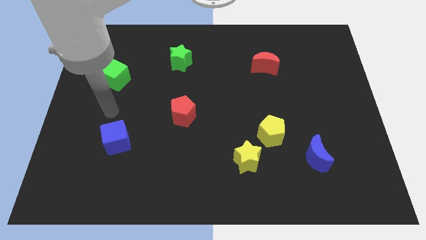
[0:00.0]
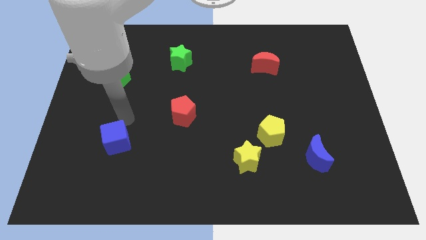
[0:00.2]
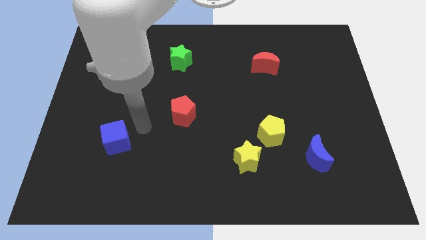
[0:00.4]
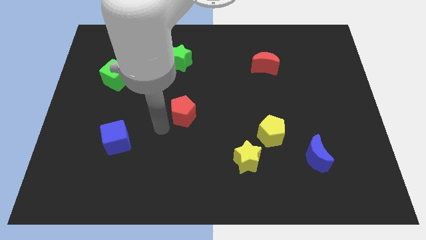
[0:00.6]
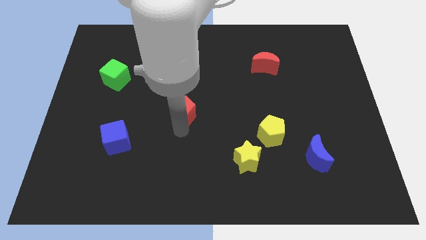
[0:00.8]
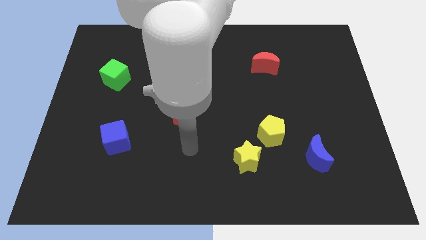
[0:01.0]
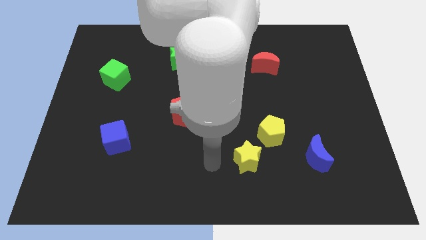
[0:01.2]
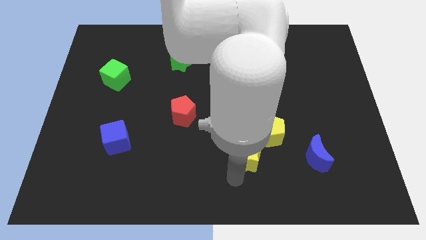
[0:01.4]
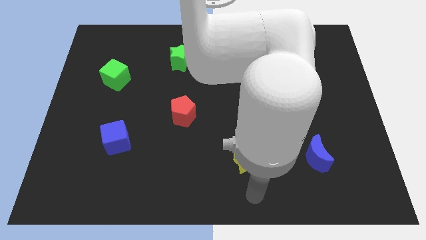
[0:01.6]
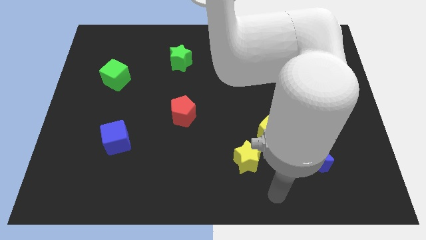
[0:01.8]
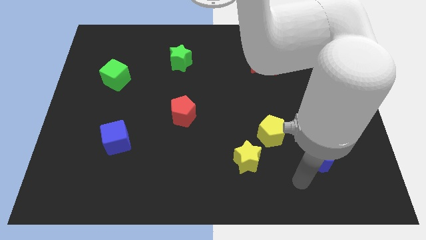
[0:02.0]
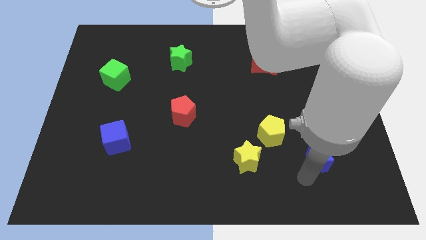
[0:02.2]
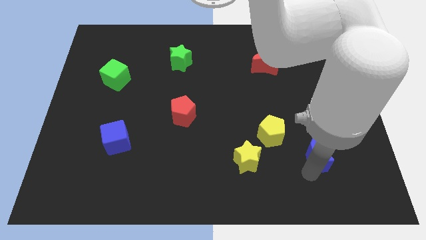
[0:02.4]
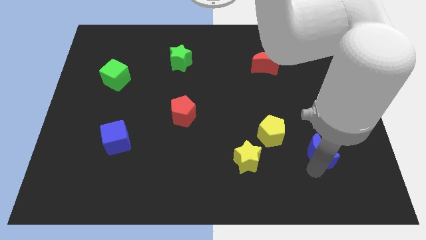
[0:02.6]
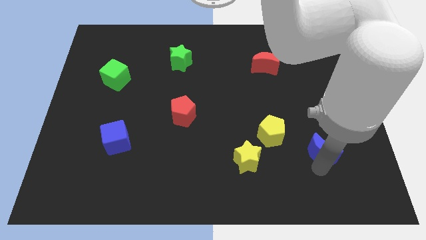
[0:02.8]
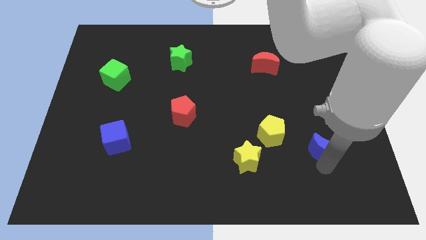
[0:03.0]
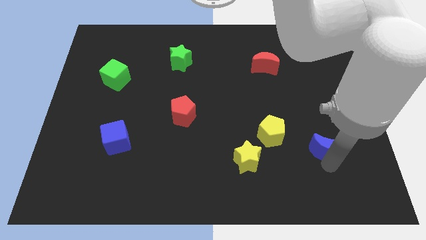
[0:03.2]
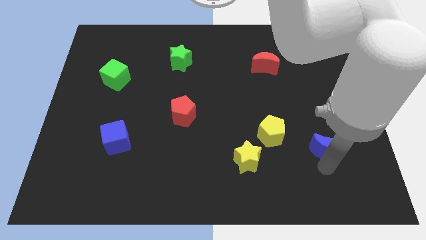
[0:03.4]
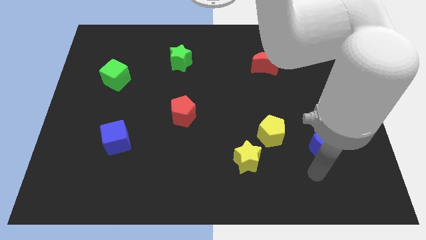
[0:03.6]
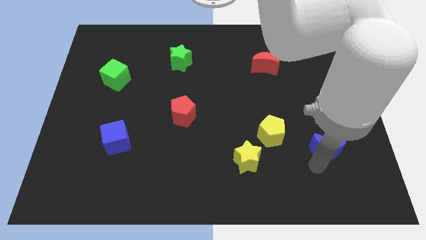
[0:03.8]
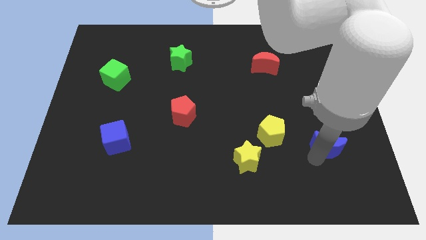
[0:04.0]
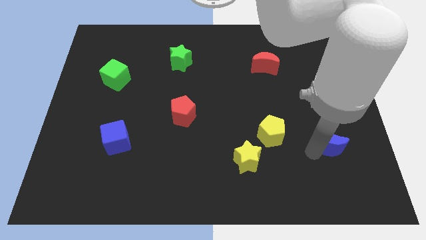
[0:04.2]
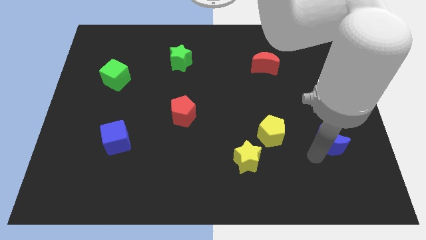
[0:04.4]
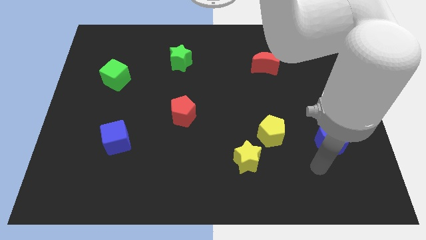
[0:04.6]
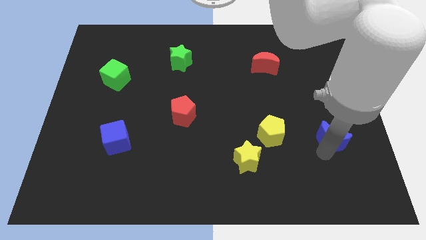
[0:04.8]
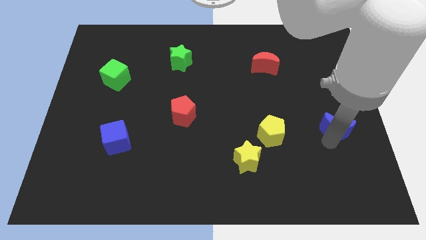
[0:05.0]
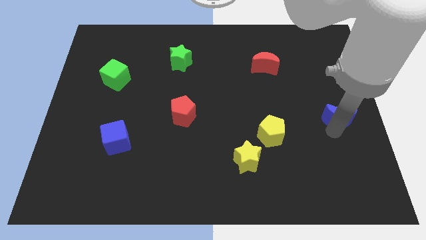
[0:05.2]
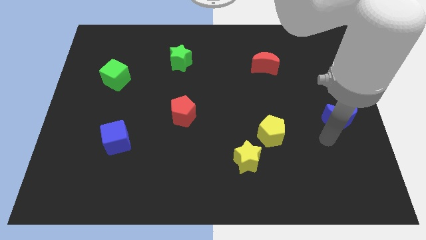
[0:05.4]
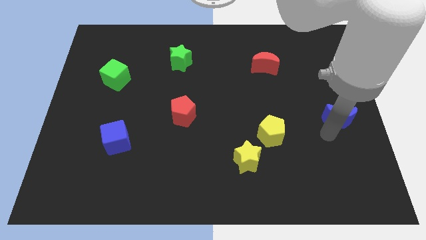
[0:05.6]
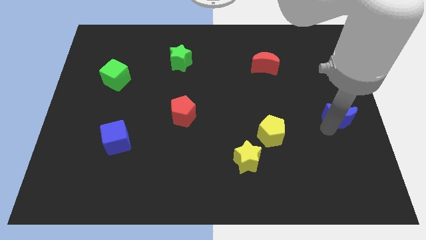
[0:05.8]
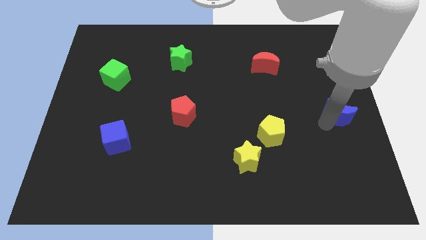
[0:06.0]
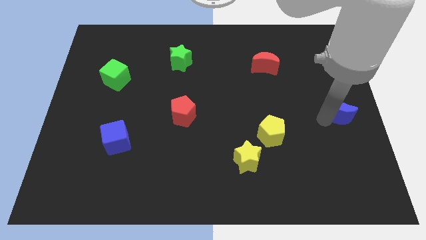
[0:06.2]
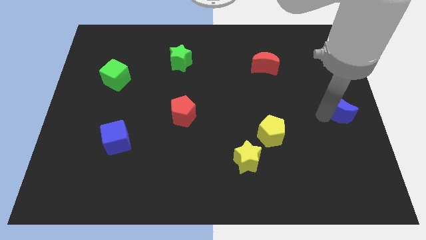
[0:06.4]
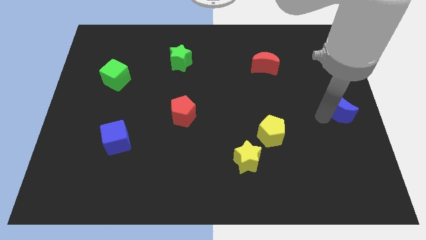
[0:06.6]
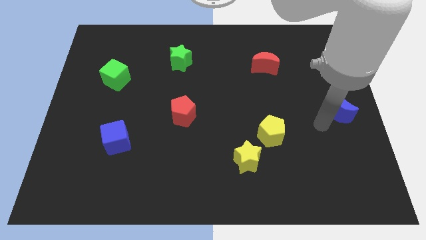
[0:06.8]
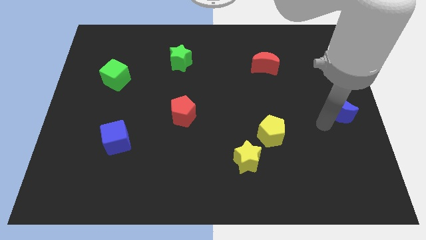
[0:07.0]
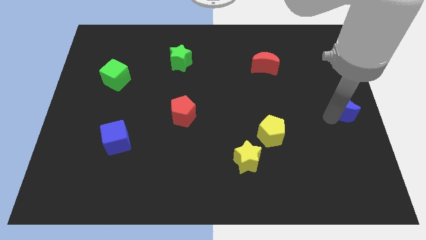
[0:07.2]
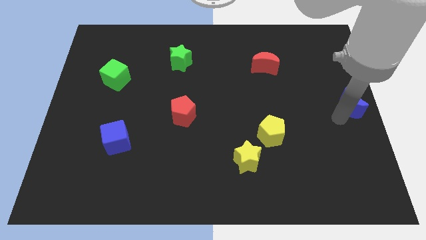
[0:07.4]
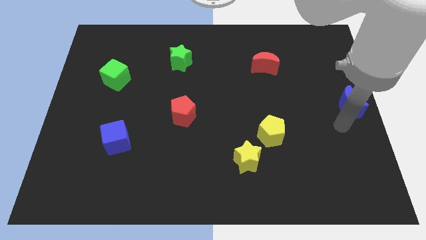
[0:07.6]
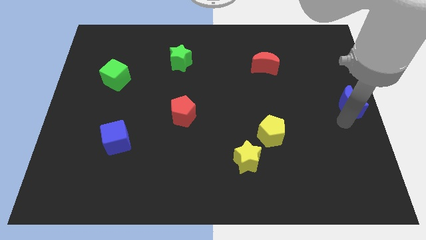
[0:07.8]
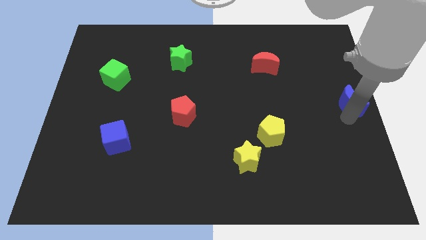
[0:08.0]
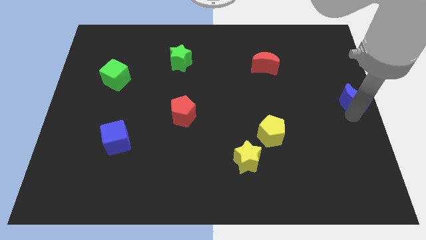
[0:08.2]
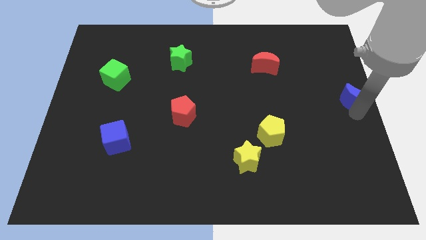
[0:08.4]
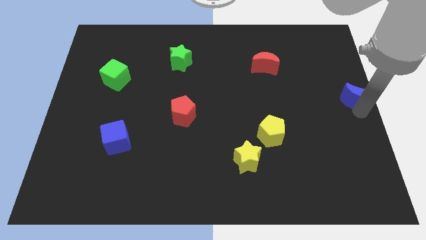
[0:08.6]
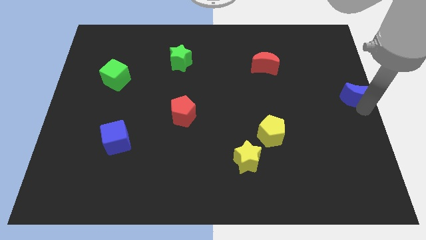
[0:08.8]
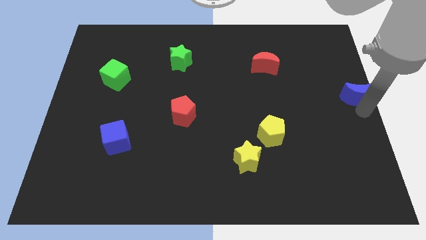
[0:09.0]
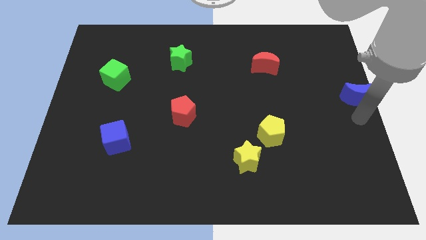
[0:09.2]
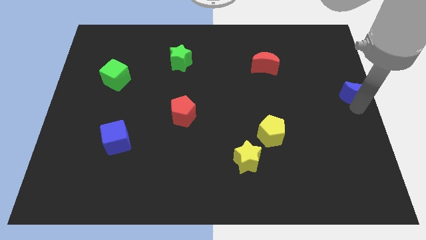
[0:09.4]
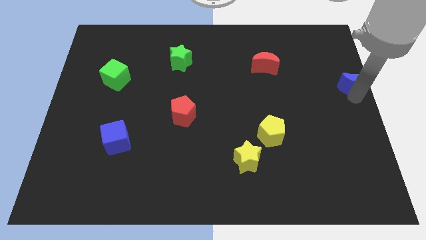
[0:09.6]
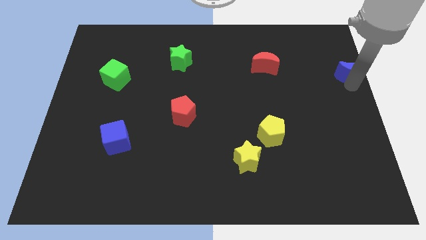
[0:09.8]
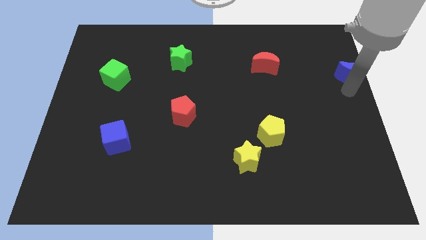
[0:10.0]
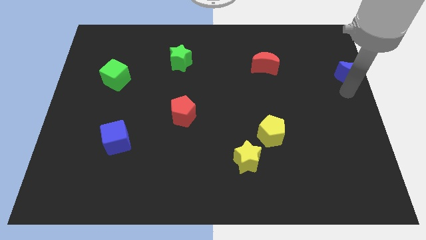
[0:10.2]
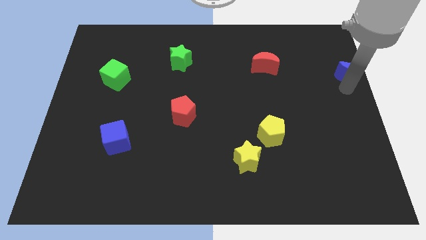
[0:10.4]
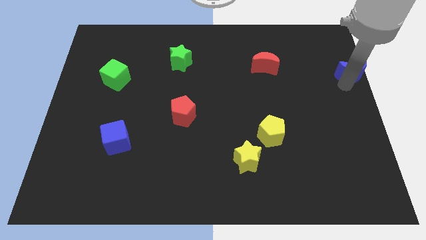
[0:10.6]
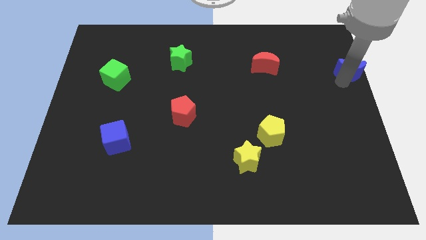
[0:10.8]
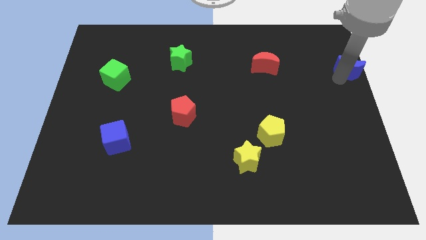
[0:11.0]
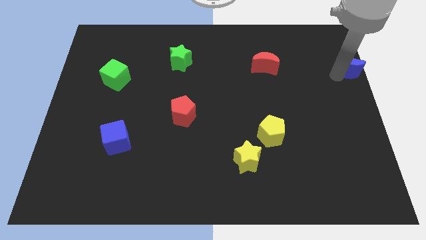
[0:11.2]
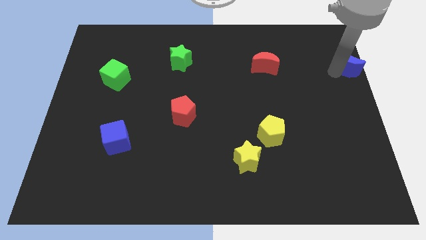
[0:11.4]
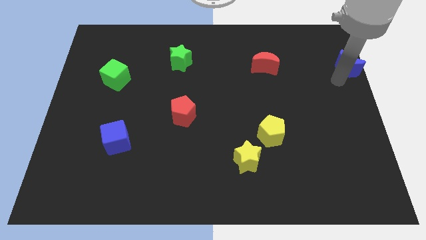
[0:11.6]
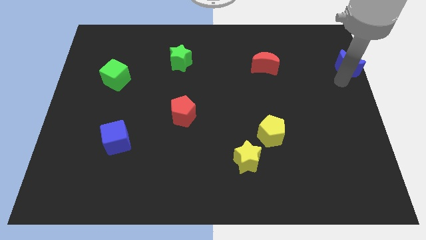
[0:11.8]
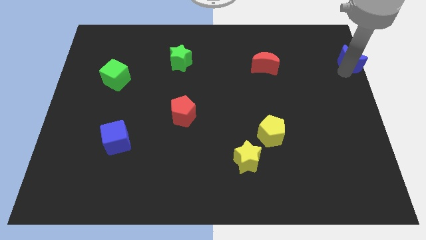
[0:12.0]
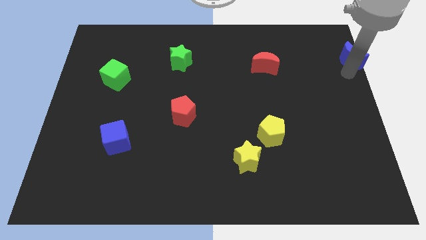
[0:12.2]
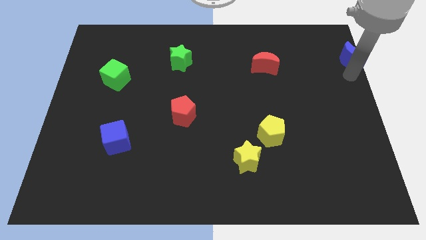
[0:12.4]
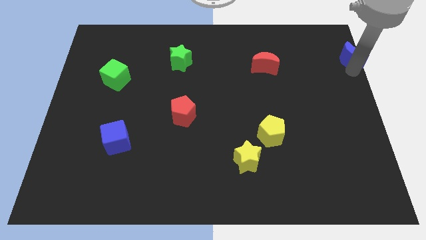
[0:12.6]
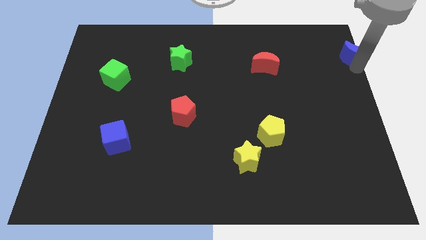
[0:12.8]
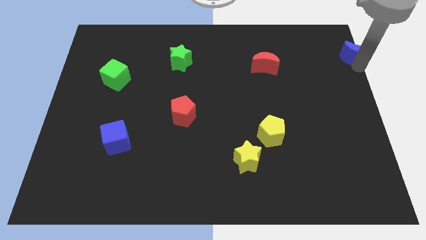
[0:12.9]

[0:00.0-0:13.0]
put the blue moon to the upper right corner
